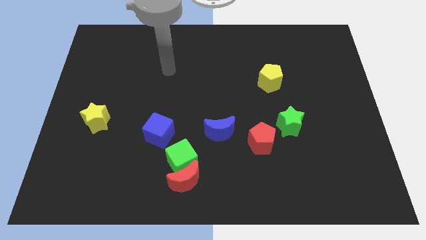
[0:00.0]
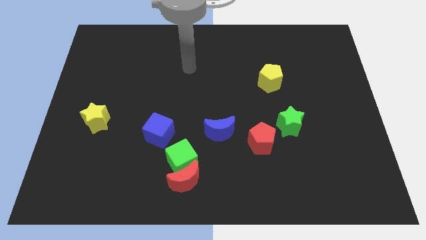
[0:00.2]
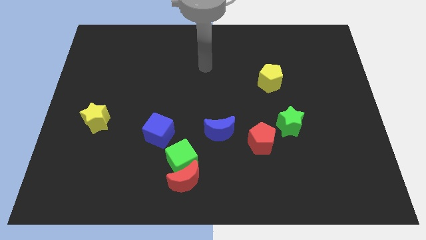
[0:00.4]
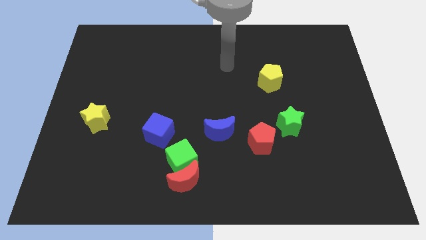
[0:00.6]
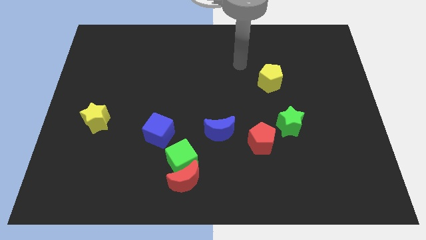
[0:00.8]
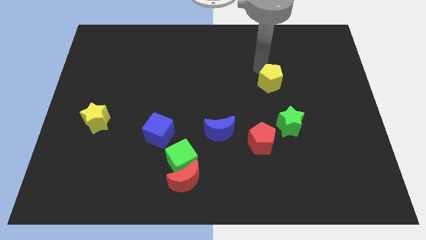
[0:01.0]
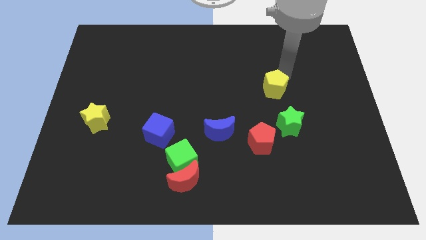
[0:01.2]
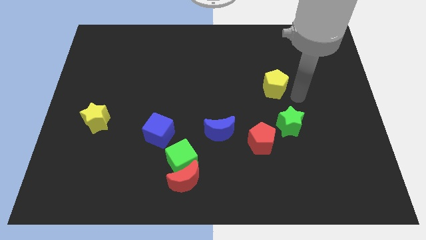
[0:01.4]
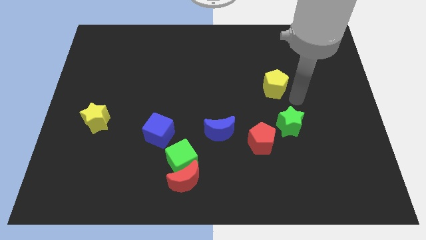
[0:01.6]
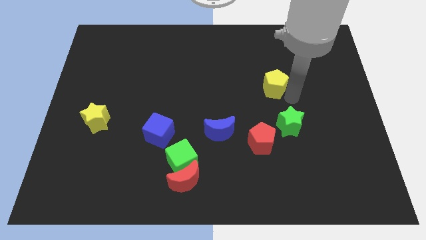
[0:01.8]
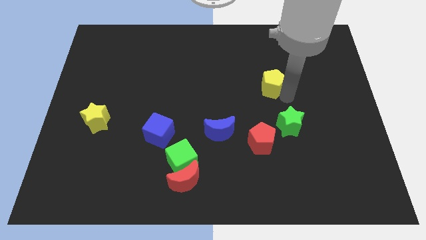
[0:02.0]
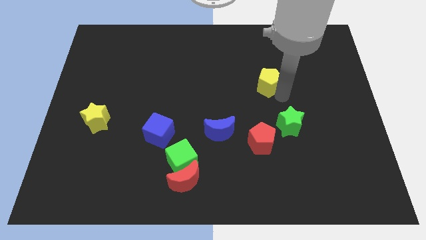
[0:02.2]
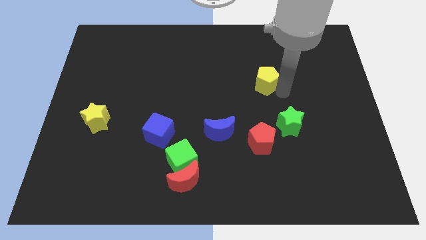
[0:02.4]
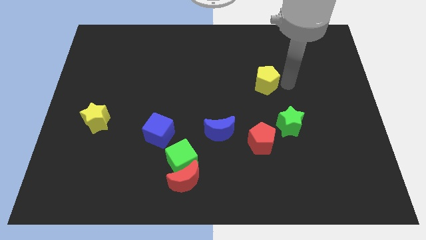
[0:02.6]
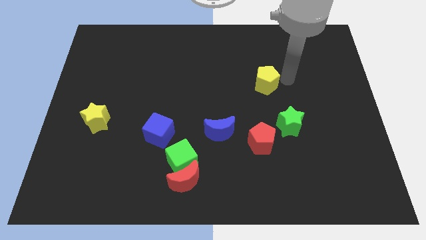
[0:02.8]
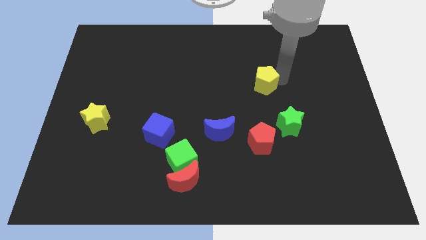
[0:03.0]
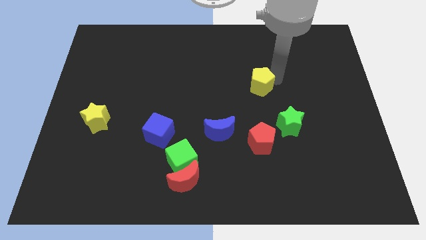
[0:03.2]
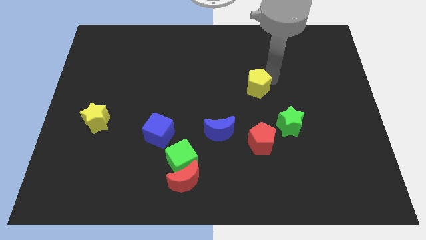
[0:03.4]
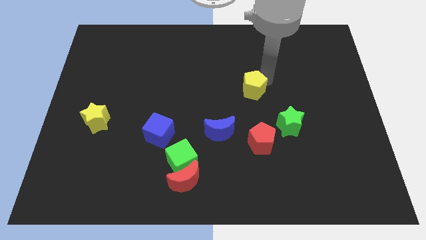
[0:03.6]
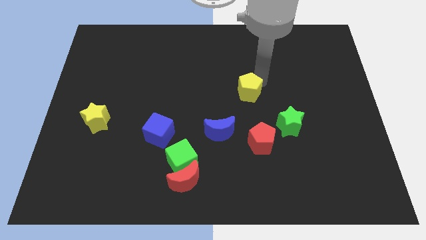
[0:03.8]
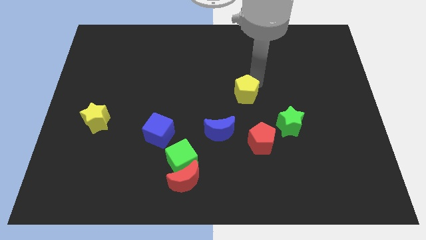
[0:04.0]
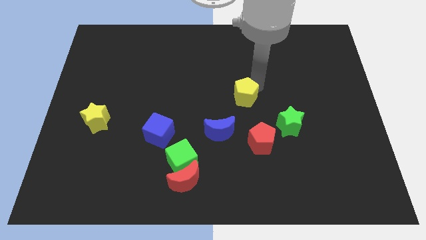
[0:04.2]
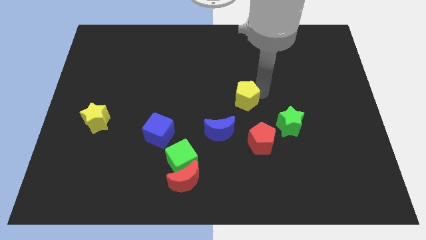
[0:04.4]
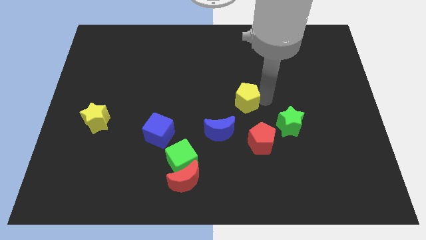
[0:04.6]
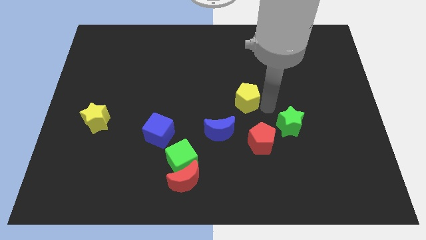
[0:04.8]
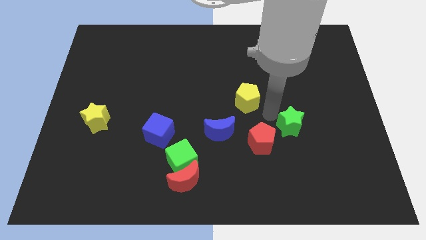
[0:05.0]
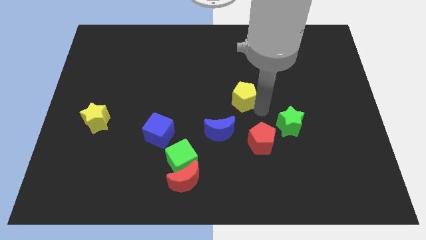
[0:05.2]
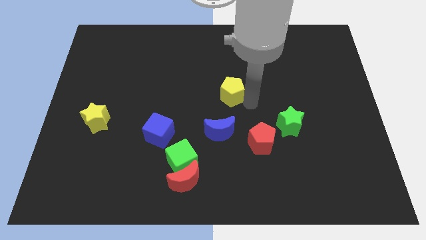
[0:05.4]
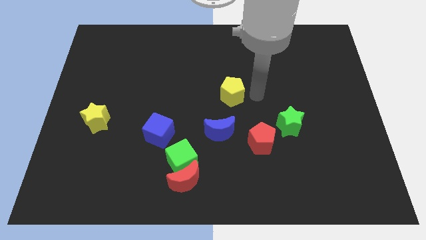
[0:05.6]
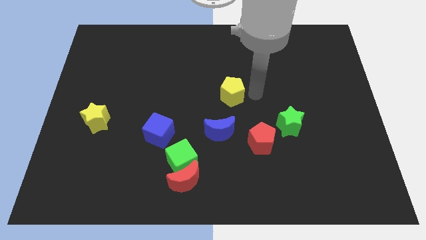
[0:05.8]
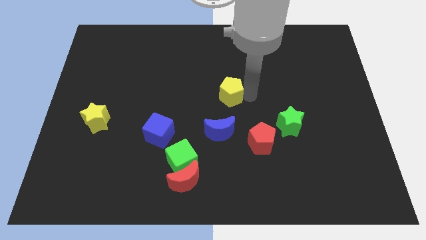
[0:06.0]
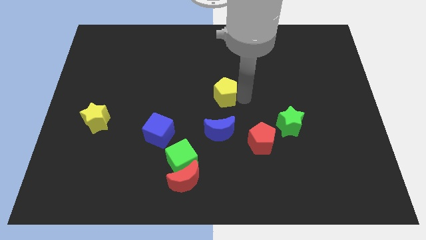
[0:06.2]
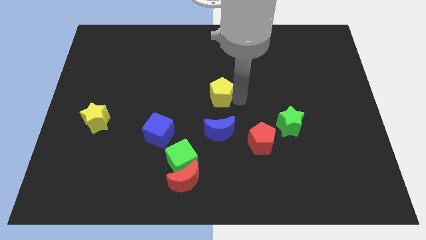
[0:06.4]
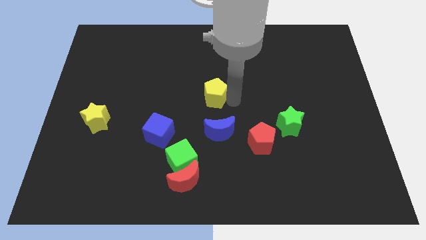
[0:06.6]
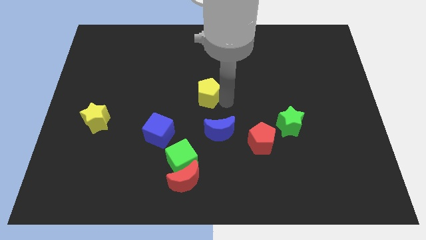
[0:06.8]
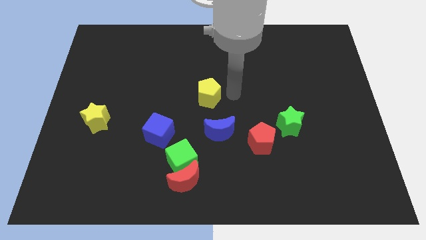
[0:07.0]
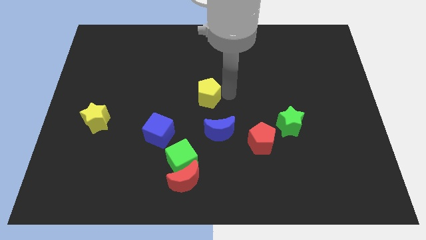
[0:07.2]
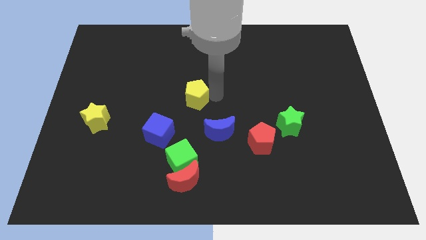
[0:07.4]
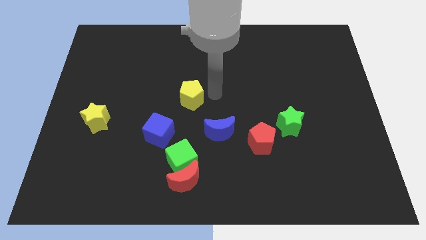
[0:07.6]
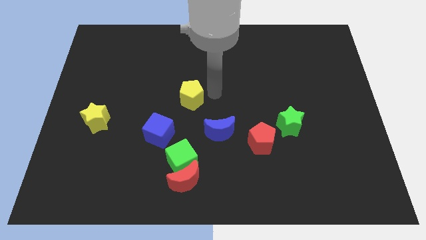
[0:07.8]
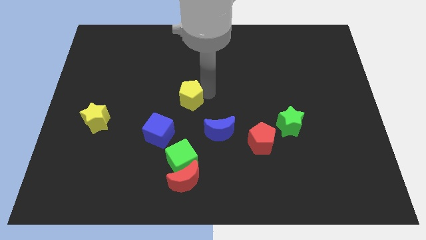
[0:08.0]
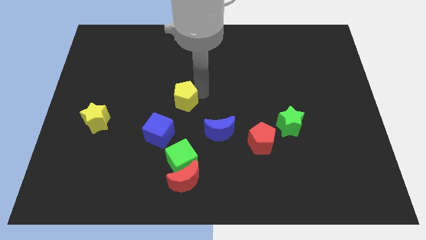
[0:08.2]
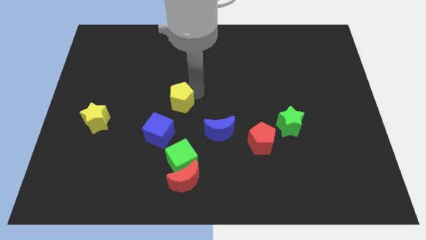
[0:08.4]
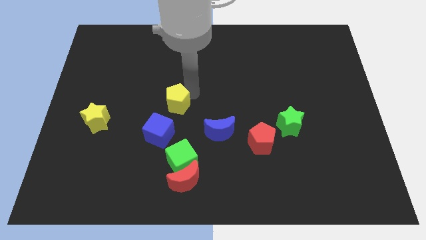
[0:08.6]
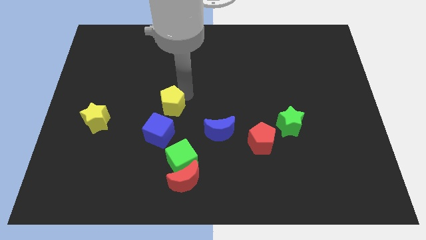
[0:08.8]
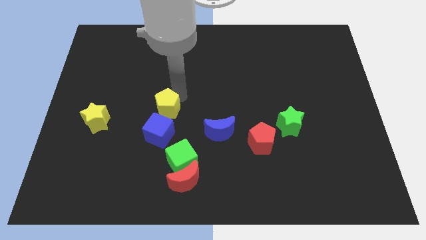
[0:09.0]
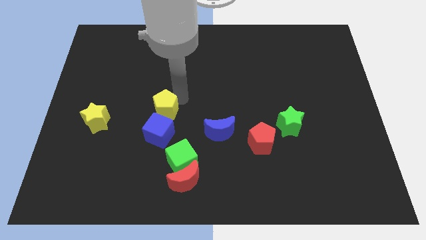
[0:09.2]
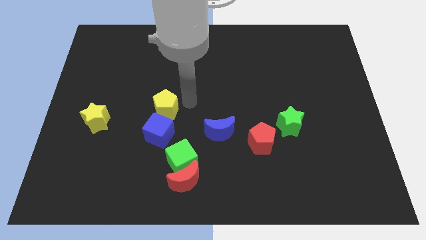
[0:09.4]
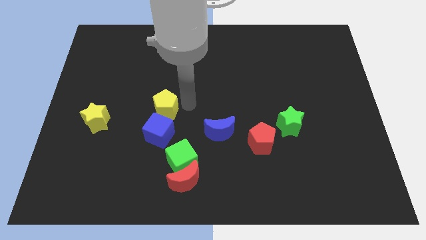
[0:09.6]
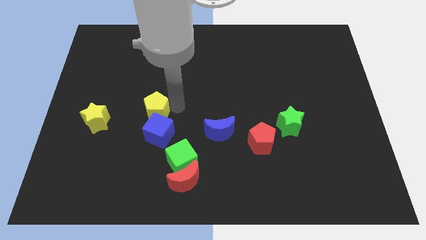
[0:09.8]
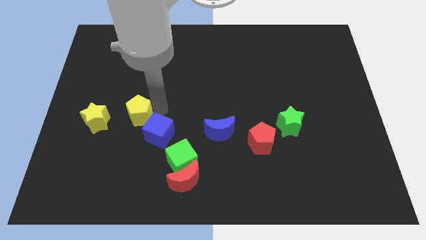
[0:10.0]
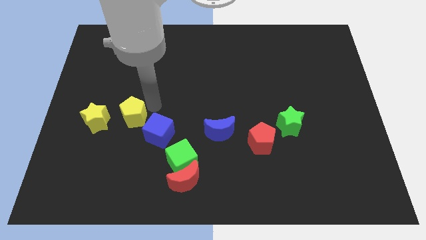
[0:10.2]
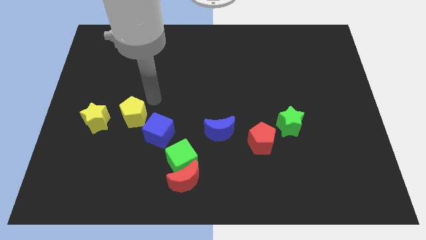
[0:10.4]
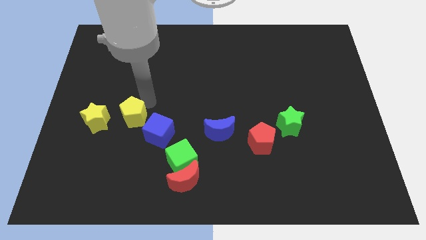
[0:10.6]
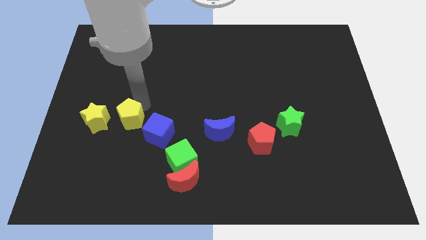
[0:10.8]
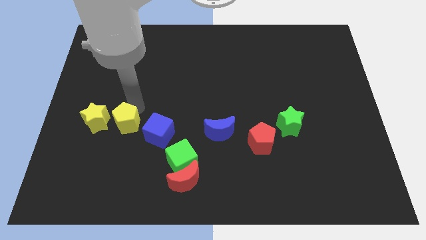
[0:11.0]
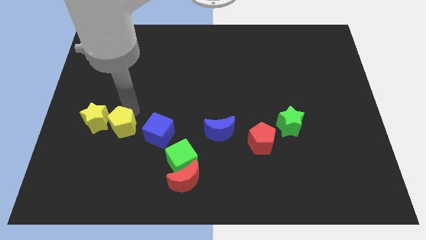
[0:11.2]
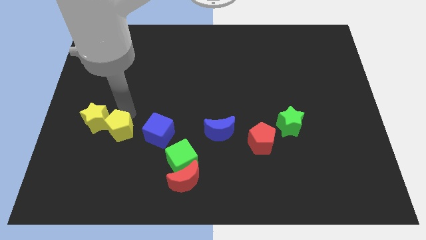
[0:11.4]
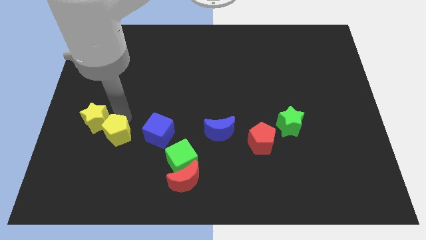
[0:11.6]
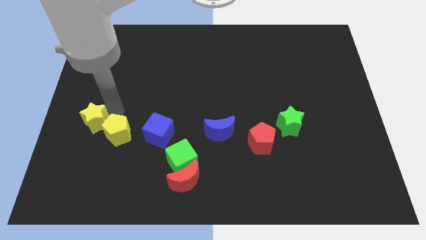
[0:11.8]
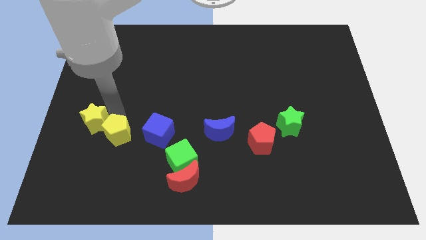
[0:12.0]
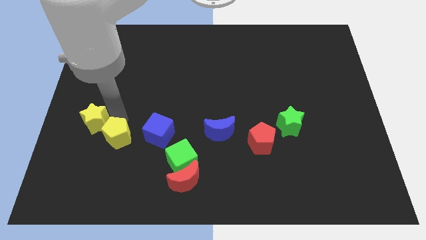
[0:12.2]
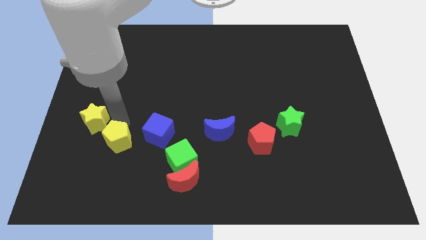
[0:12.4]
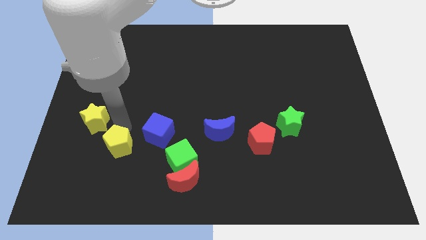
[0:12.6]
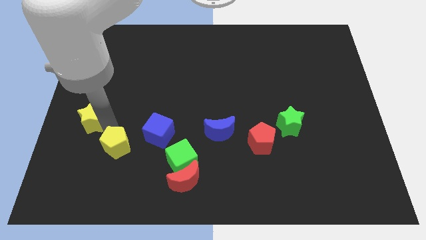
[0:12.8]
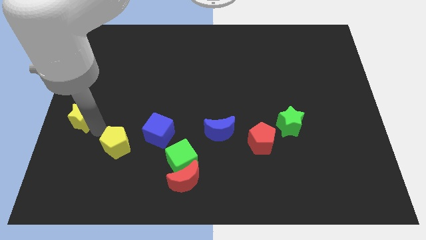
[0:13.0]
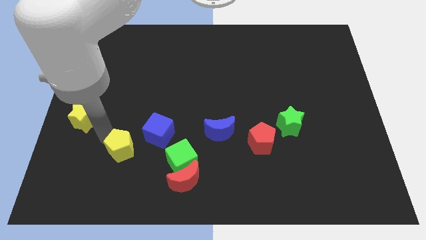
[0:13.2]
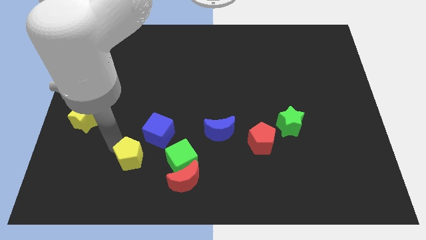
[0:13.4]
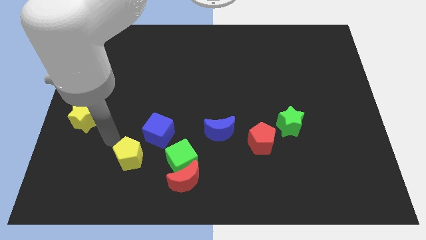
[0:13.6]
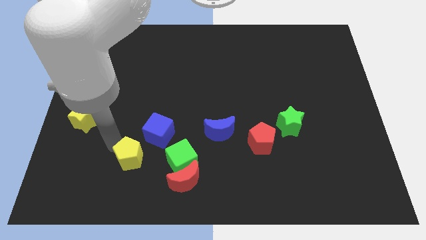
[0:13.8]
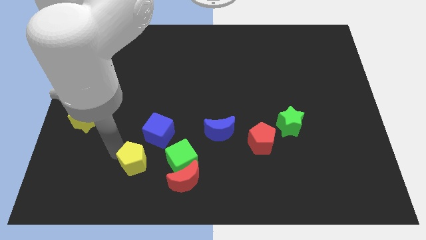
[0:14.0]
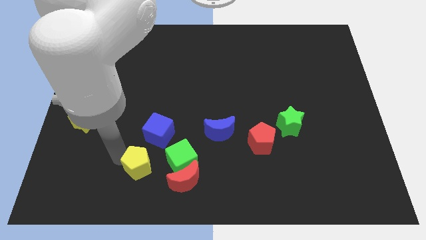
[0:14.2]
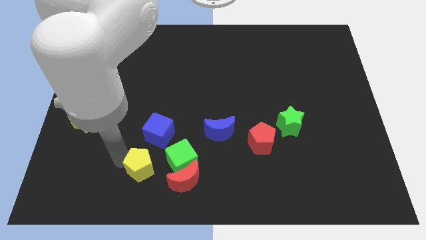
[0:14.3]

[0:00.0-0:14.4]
push the yellow pentagon to the bottom left side of the green cube

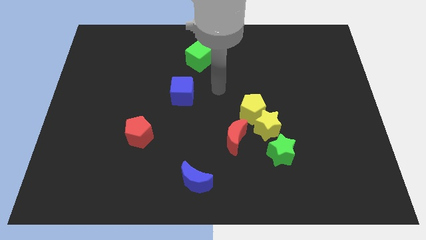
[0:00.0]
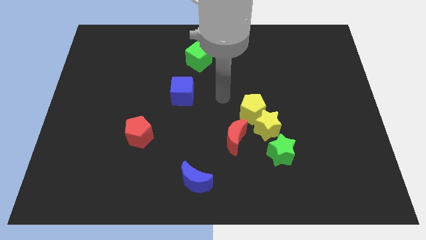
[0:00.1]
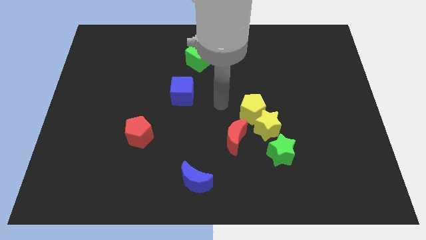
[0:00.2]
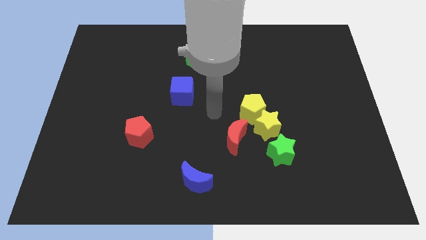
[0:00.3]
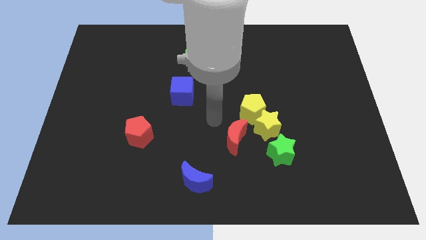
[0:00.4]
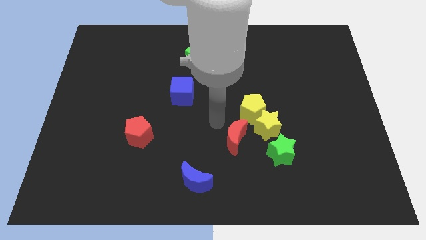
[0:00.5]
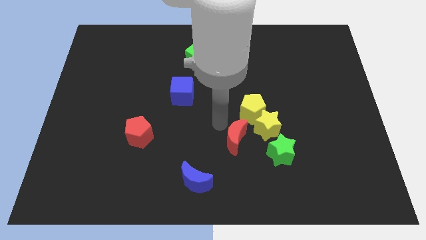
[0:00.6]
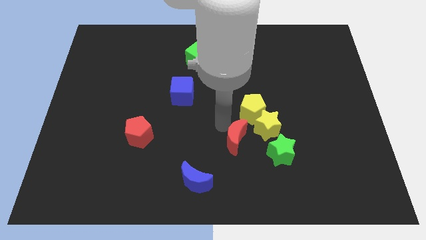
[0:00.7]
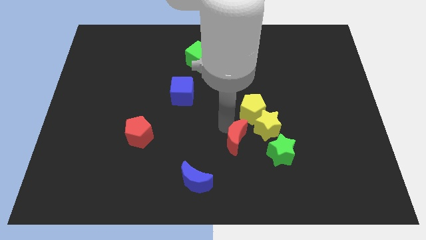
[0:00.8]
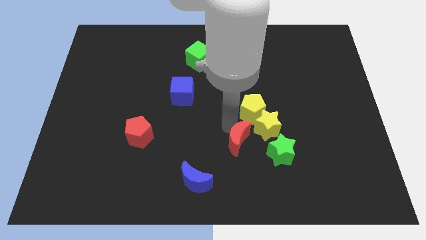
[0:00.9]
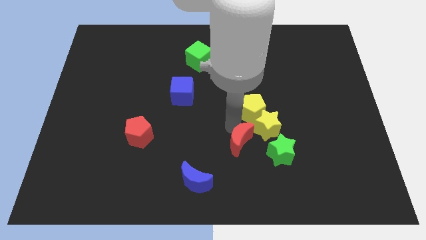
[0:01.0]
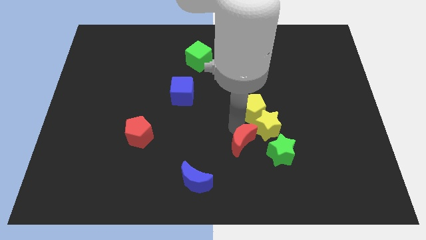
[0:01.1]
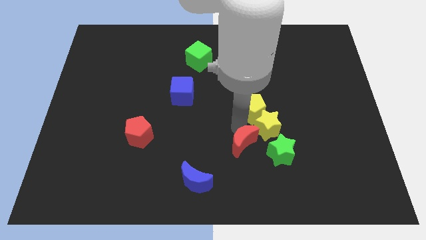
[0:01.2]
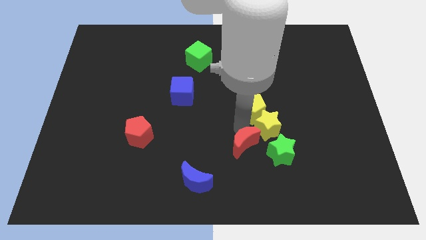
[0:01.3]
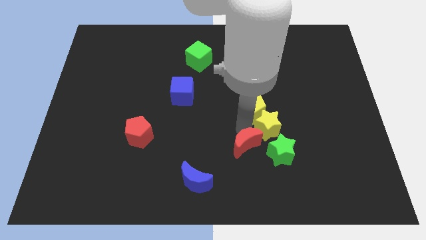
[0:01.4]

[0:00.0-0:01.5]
move the red moon to the bottom of the yellow star
